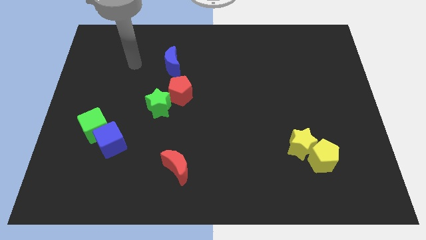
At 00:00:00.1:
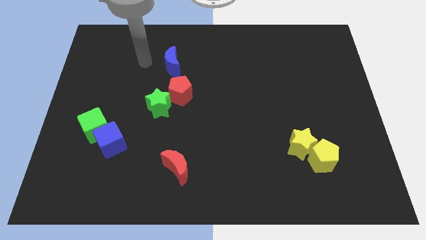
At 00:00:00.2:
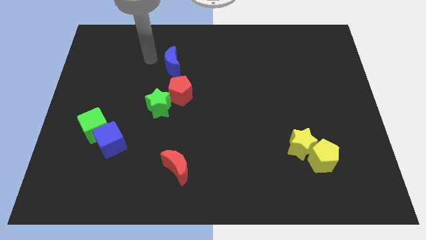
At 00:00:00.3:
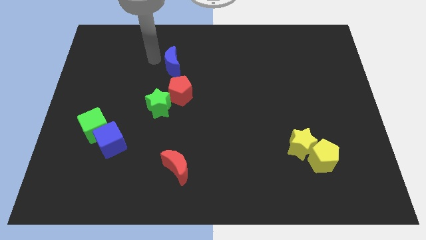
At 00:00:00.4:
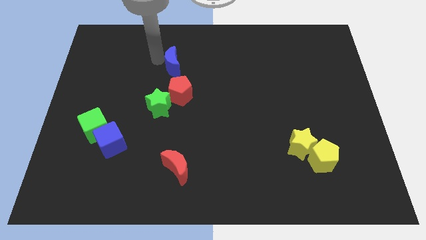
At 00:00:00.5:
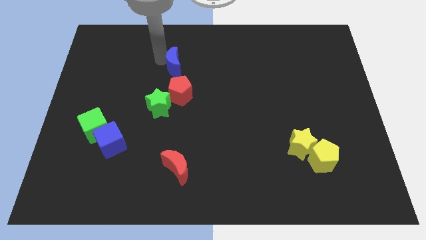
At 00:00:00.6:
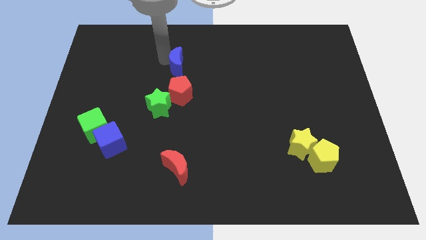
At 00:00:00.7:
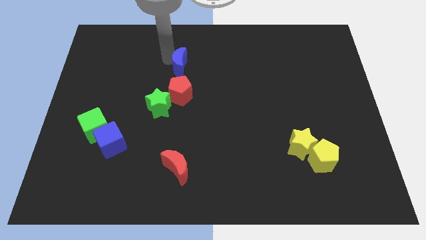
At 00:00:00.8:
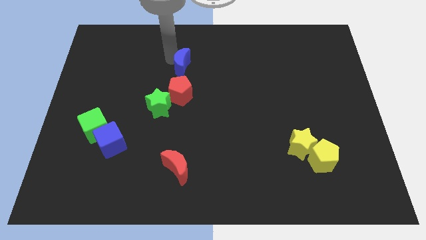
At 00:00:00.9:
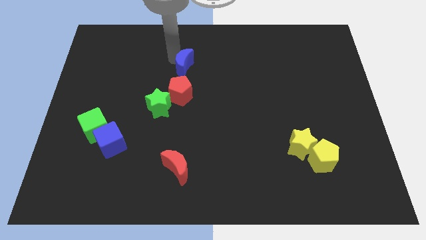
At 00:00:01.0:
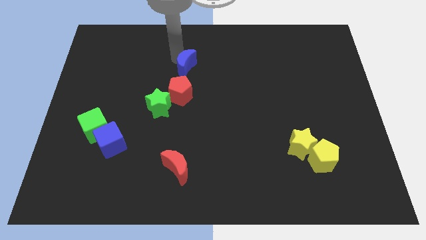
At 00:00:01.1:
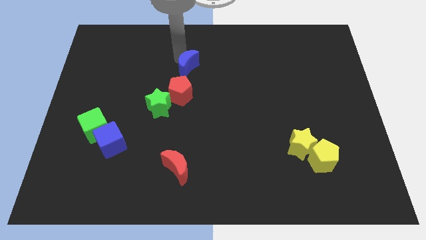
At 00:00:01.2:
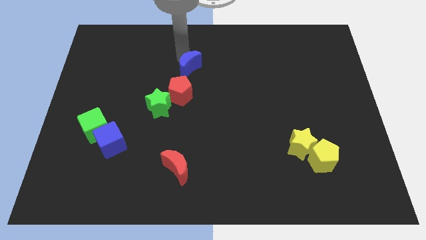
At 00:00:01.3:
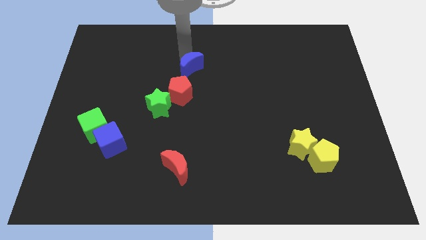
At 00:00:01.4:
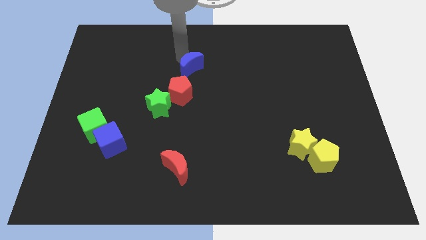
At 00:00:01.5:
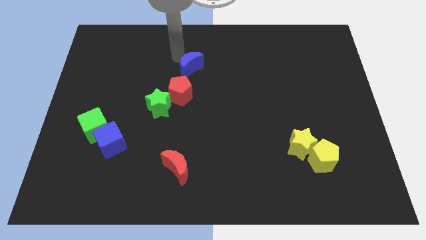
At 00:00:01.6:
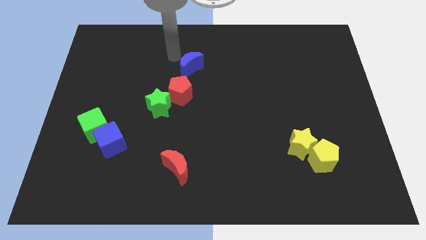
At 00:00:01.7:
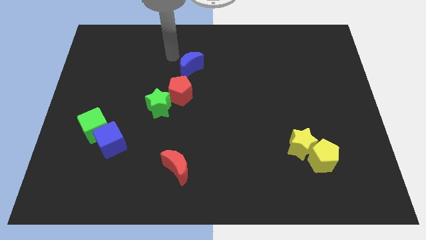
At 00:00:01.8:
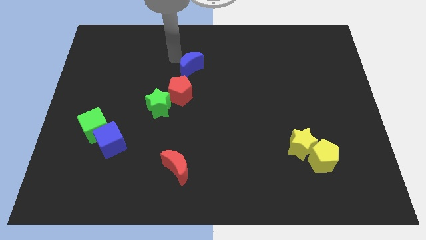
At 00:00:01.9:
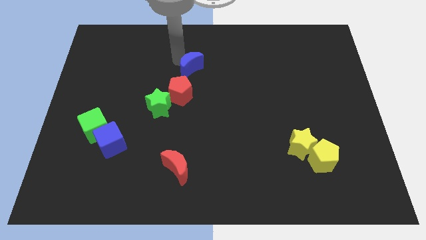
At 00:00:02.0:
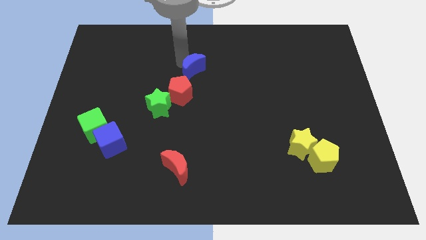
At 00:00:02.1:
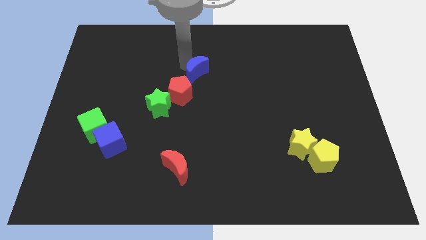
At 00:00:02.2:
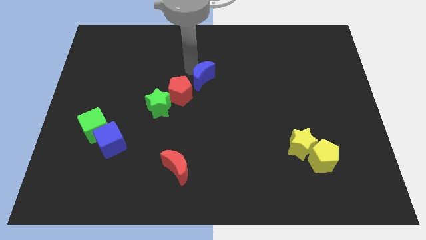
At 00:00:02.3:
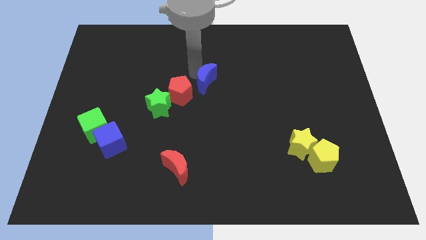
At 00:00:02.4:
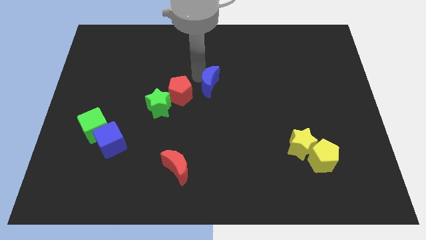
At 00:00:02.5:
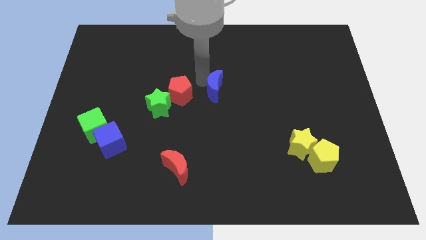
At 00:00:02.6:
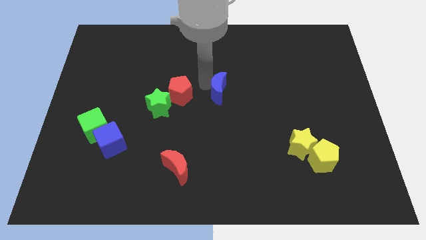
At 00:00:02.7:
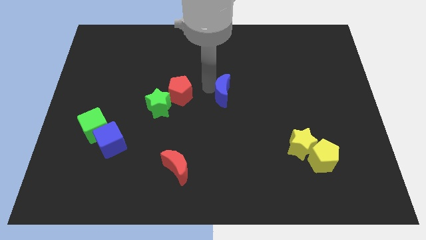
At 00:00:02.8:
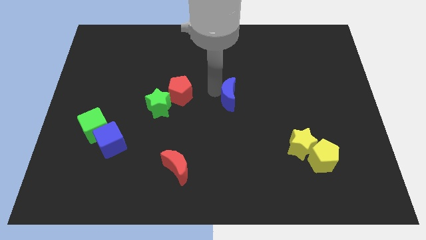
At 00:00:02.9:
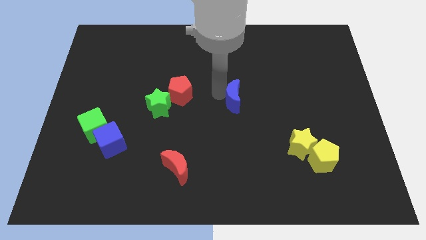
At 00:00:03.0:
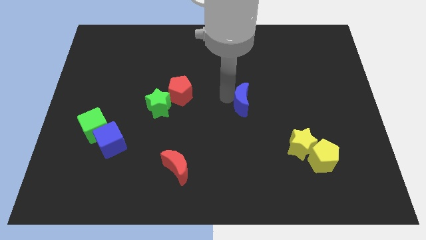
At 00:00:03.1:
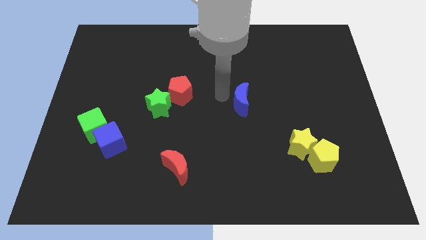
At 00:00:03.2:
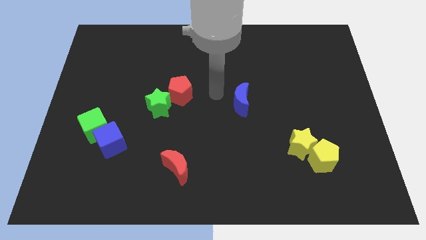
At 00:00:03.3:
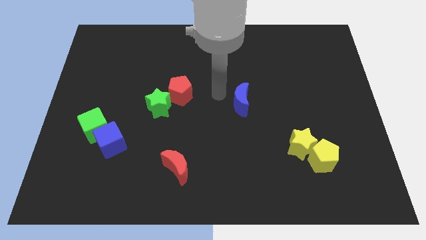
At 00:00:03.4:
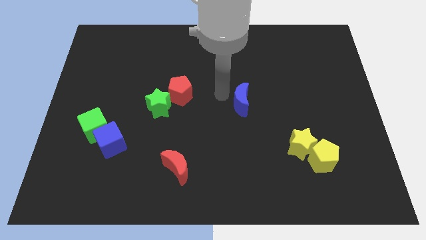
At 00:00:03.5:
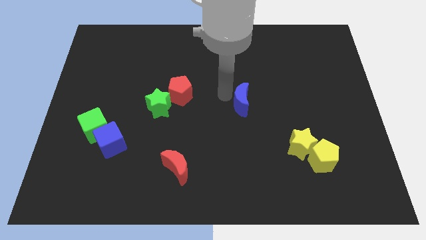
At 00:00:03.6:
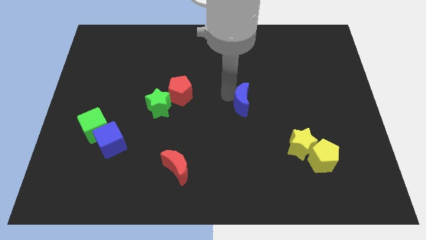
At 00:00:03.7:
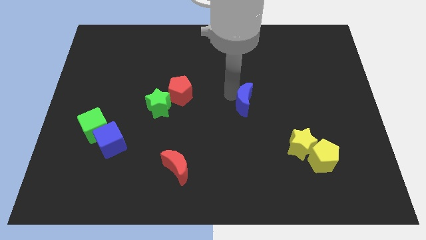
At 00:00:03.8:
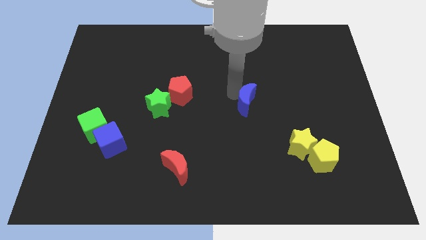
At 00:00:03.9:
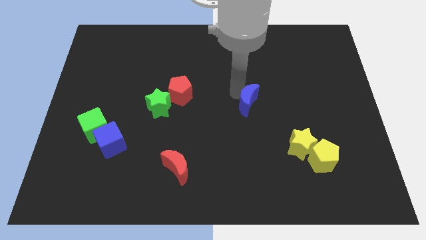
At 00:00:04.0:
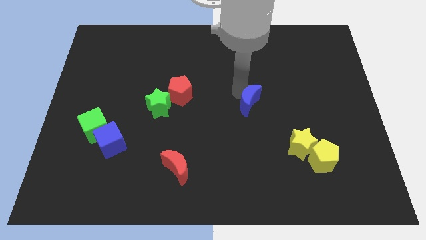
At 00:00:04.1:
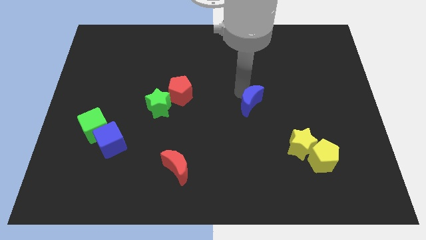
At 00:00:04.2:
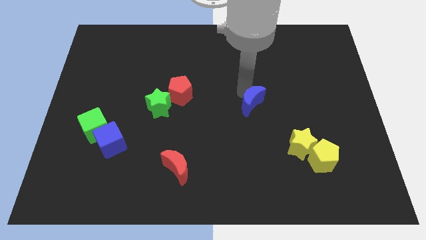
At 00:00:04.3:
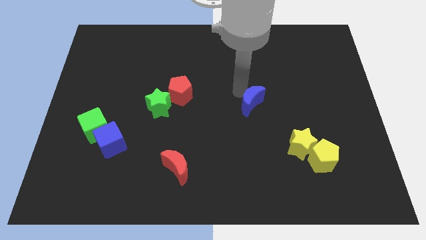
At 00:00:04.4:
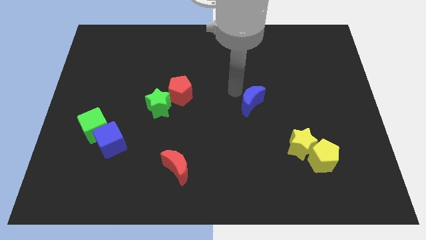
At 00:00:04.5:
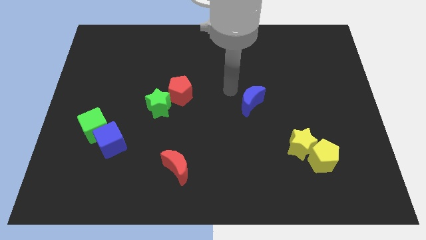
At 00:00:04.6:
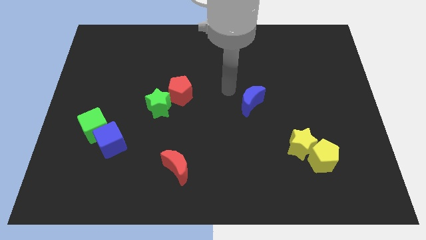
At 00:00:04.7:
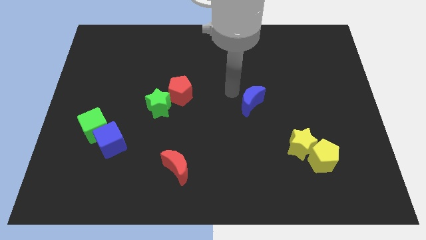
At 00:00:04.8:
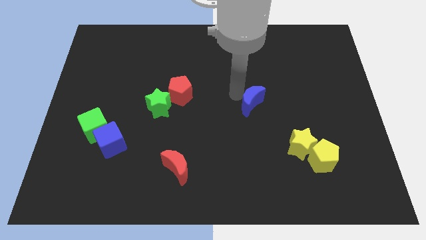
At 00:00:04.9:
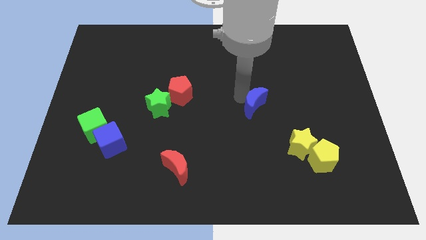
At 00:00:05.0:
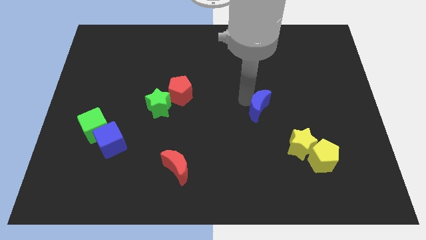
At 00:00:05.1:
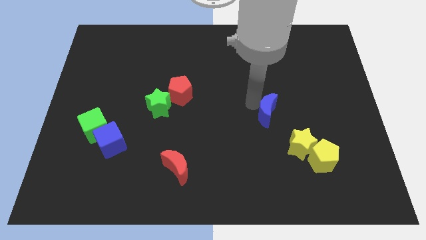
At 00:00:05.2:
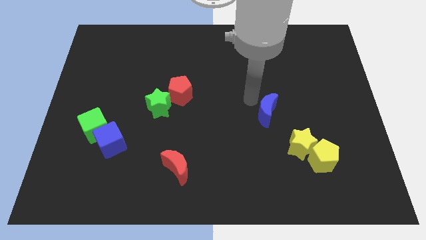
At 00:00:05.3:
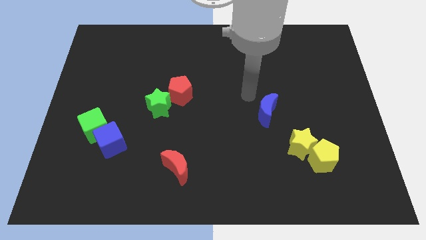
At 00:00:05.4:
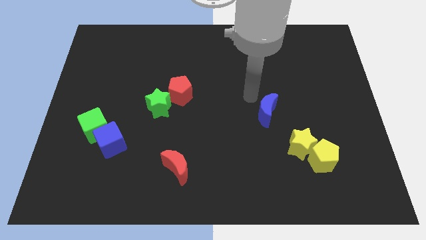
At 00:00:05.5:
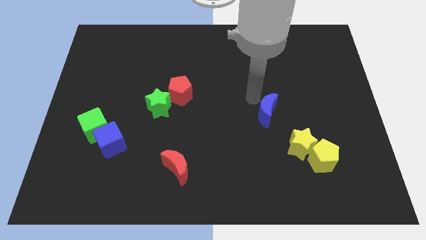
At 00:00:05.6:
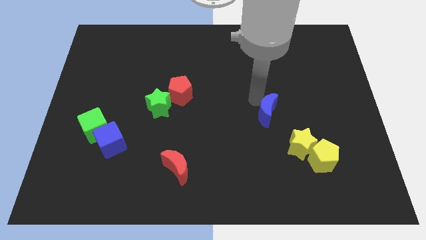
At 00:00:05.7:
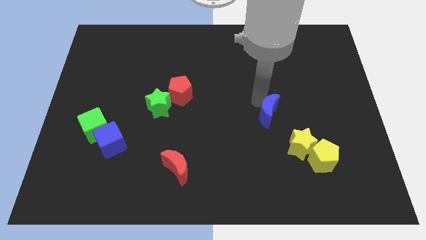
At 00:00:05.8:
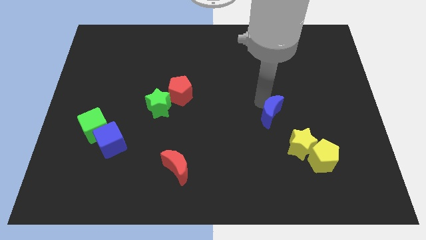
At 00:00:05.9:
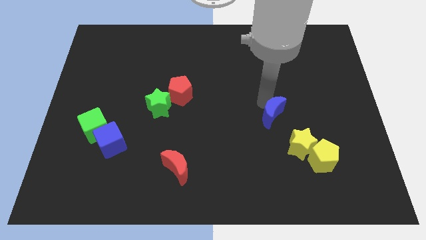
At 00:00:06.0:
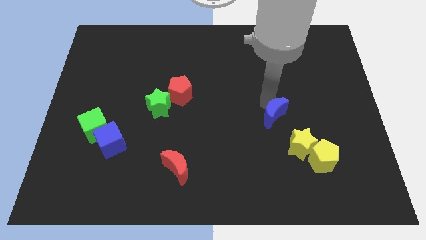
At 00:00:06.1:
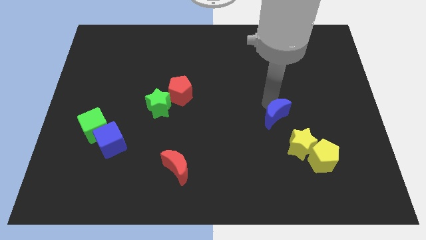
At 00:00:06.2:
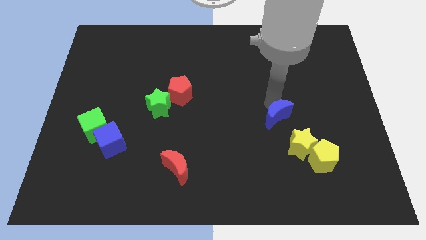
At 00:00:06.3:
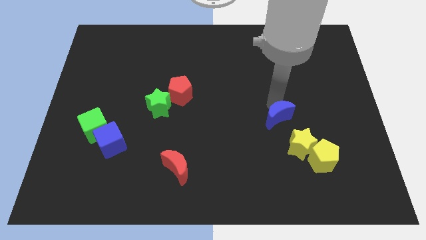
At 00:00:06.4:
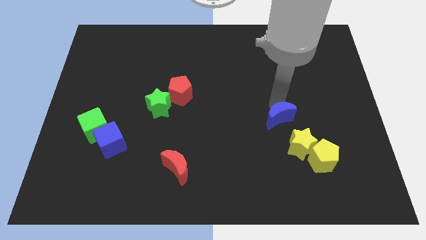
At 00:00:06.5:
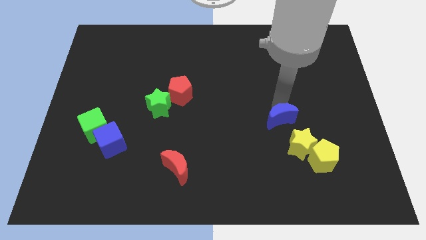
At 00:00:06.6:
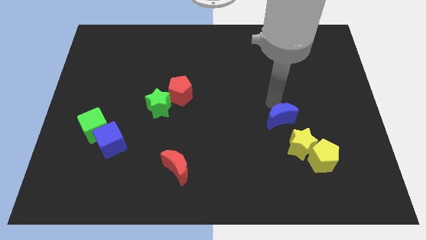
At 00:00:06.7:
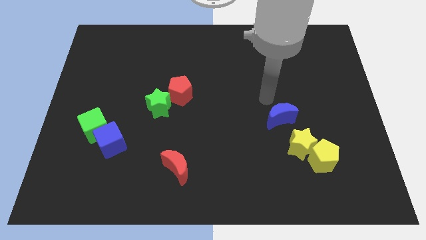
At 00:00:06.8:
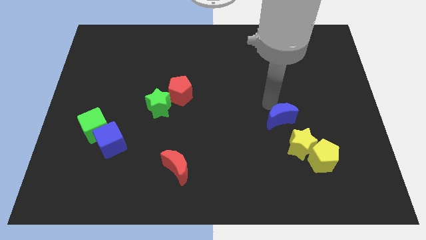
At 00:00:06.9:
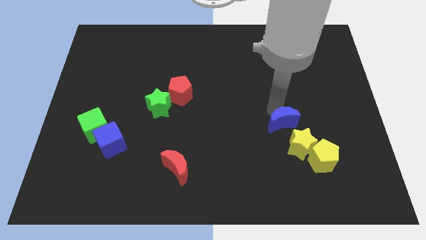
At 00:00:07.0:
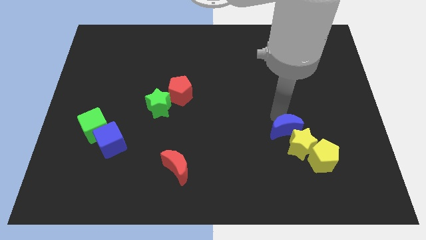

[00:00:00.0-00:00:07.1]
push the blue moon towards the yellow star
